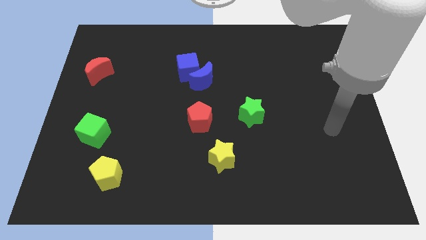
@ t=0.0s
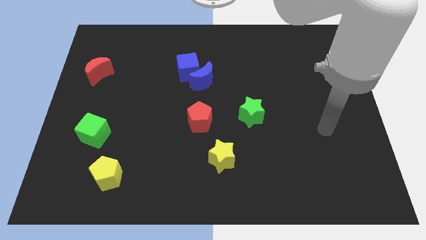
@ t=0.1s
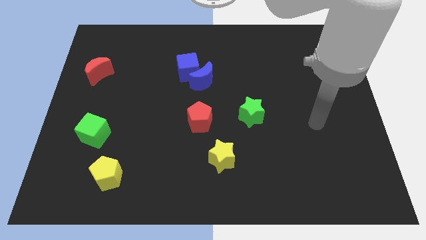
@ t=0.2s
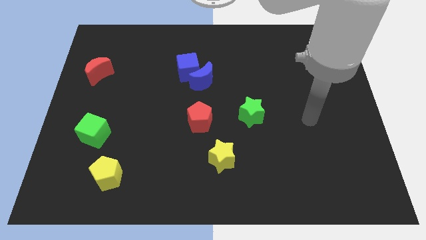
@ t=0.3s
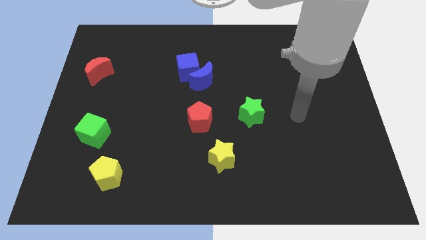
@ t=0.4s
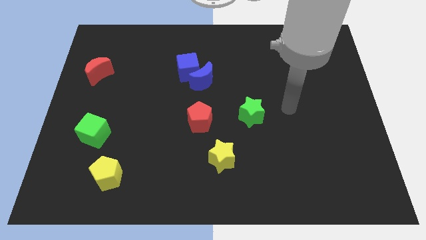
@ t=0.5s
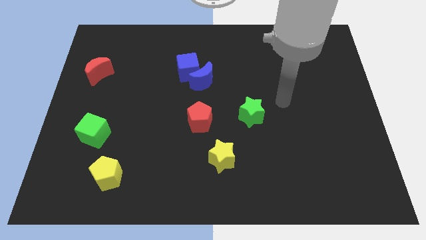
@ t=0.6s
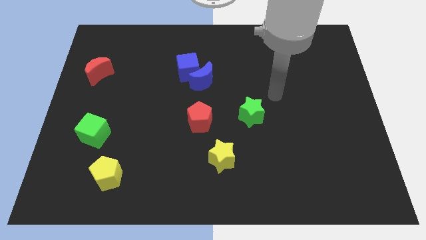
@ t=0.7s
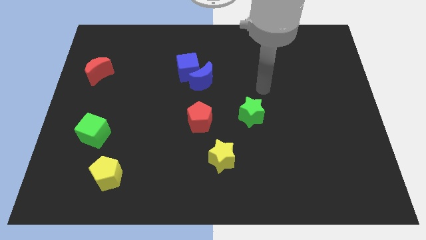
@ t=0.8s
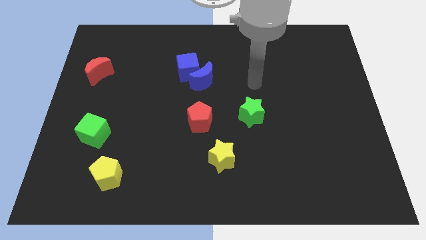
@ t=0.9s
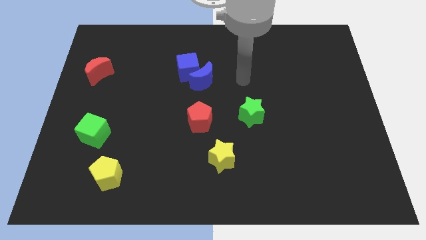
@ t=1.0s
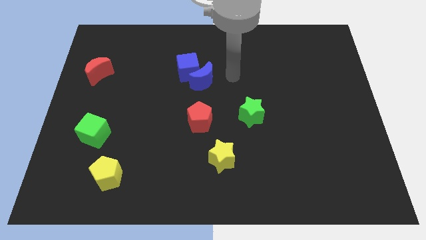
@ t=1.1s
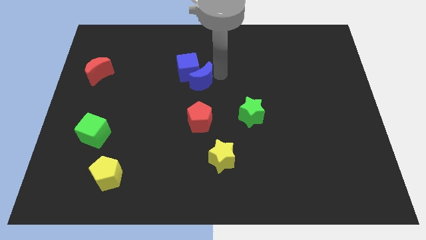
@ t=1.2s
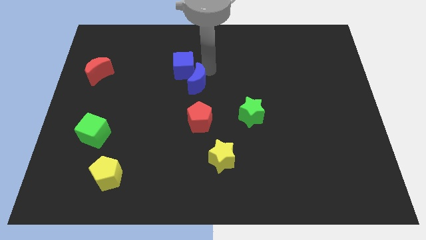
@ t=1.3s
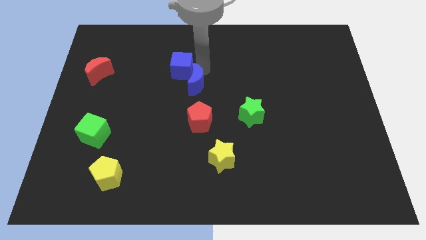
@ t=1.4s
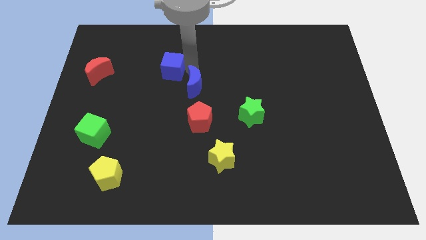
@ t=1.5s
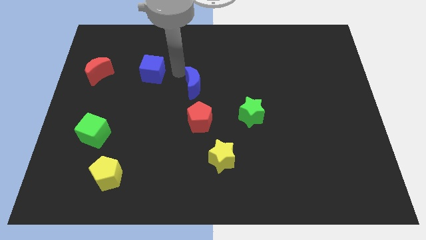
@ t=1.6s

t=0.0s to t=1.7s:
move the blue moon away from the blue cube

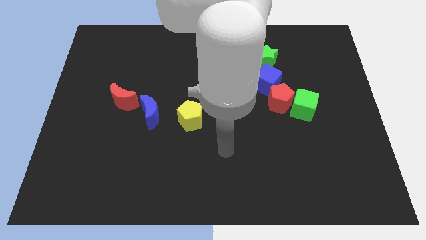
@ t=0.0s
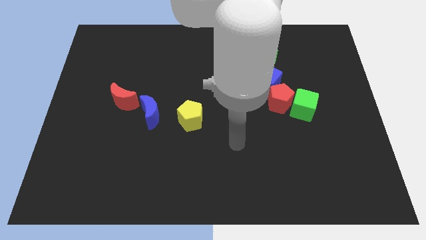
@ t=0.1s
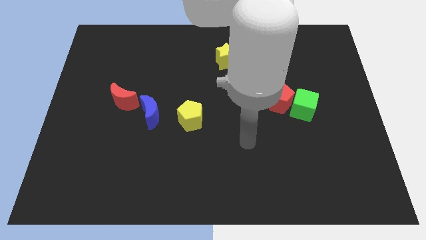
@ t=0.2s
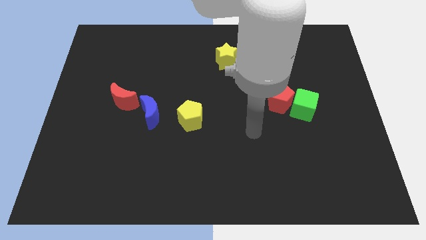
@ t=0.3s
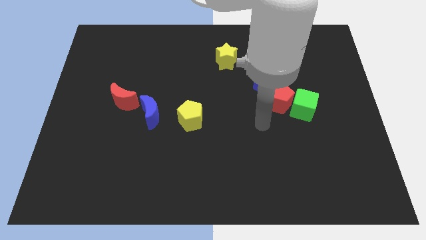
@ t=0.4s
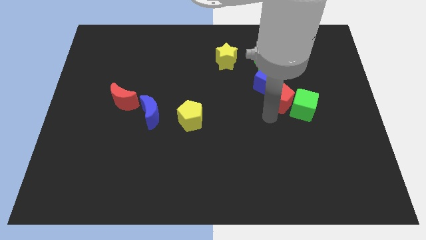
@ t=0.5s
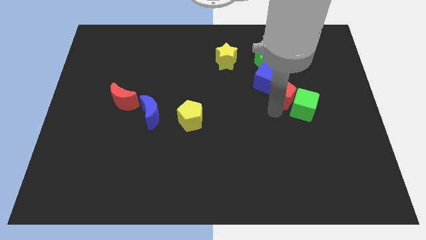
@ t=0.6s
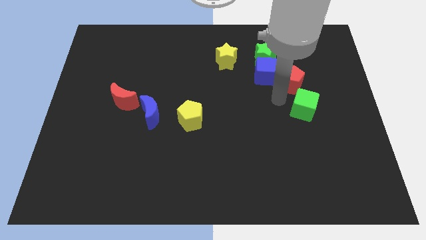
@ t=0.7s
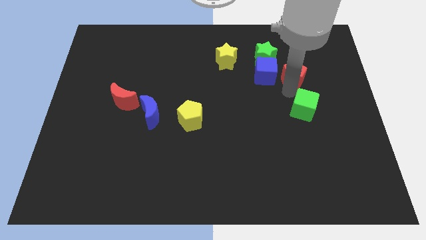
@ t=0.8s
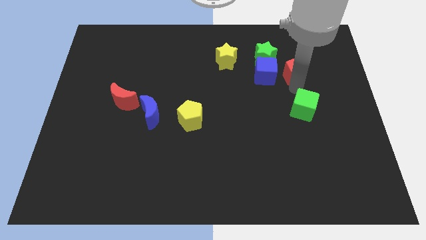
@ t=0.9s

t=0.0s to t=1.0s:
pull the green cube apart from the red pentagon

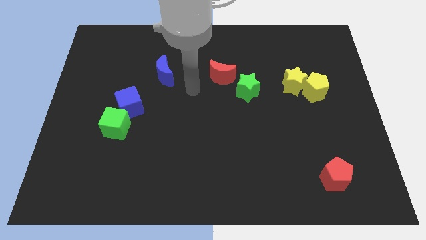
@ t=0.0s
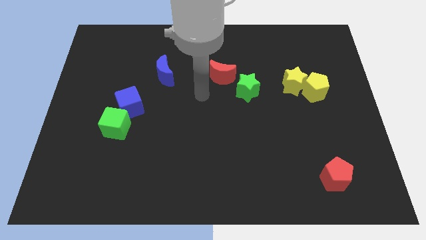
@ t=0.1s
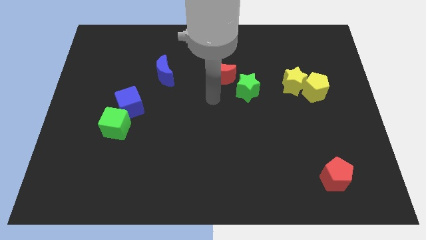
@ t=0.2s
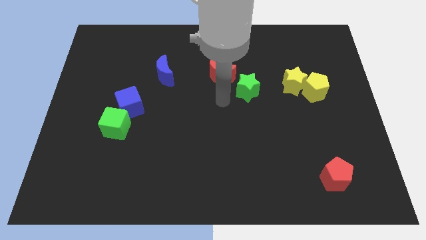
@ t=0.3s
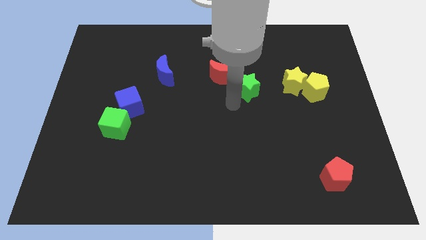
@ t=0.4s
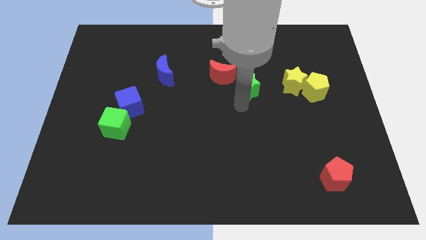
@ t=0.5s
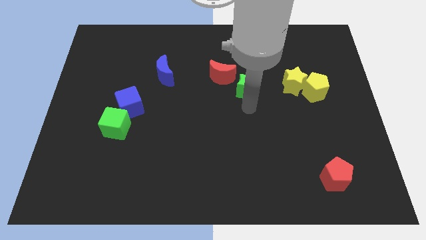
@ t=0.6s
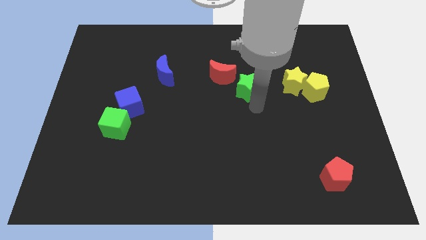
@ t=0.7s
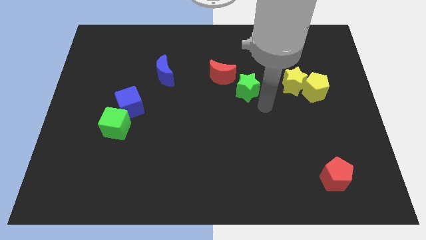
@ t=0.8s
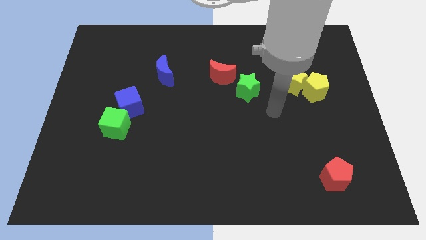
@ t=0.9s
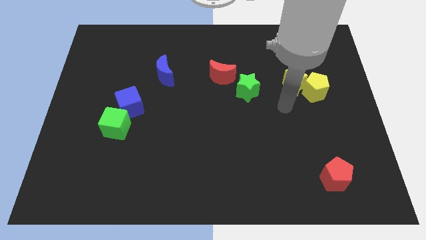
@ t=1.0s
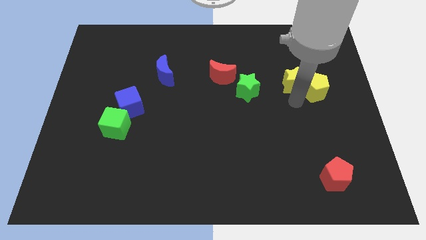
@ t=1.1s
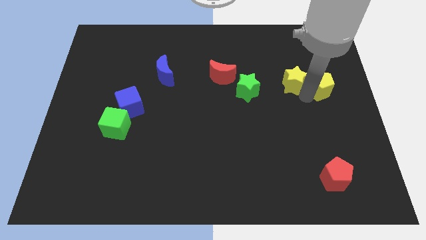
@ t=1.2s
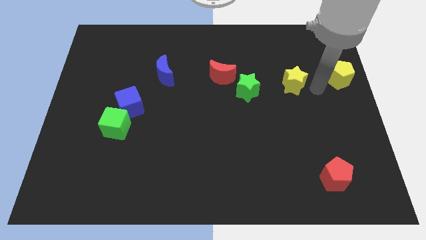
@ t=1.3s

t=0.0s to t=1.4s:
move the yellow star away from the yellow pentagon

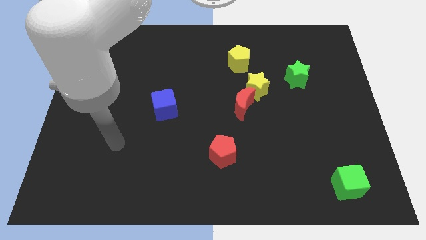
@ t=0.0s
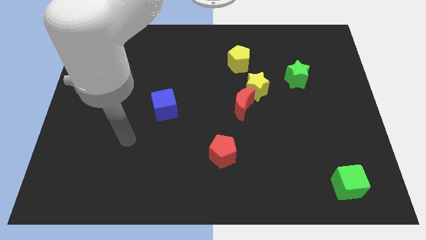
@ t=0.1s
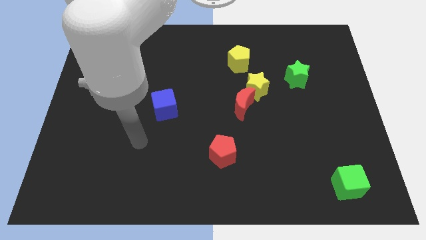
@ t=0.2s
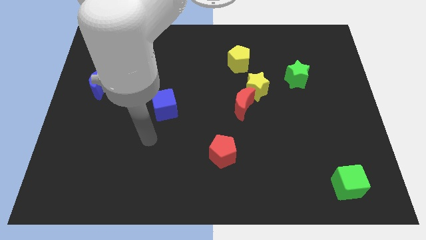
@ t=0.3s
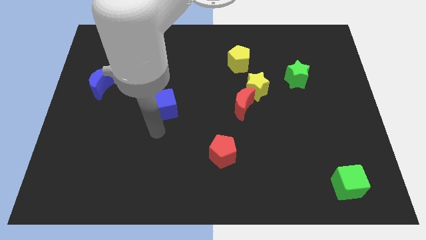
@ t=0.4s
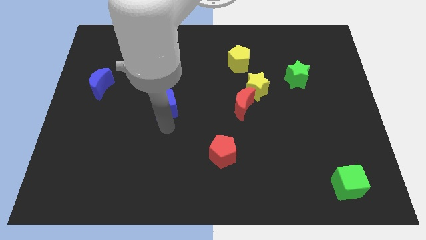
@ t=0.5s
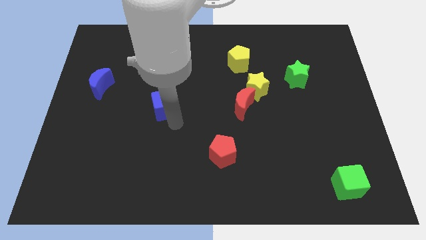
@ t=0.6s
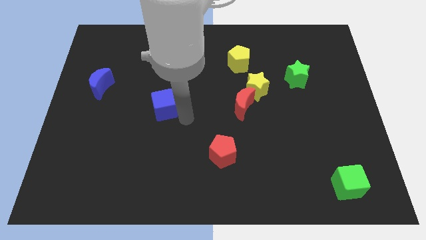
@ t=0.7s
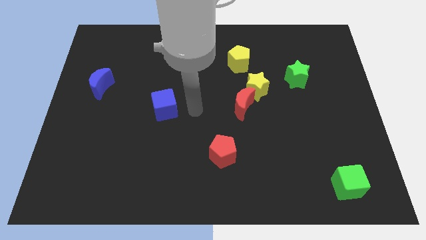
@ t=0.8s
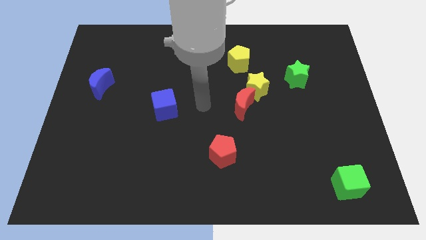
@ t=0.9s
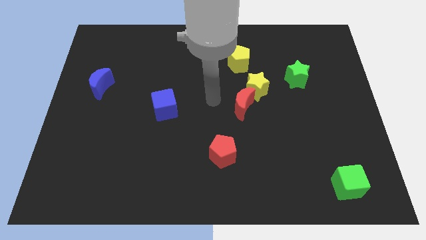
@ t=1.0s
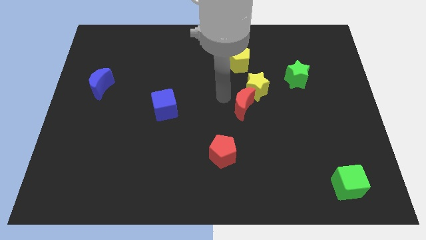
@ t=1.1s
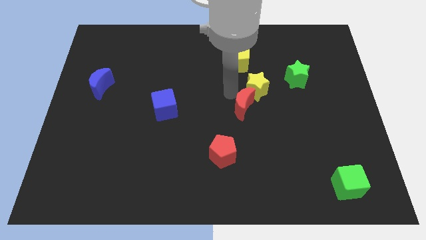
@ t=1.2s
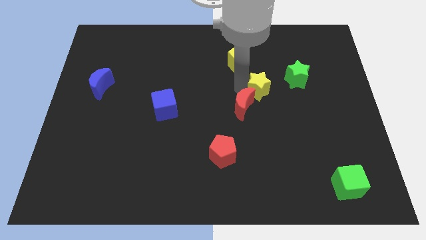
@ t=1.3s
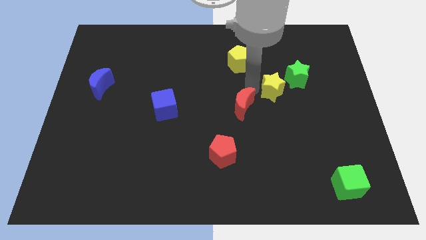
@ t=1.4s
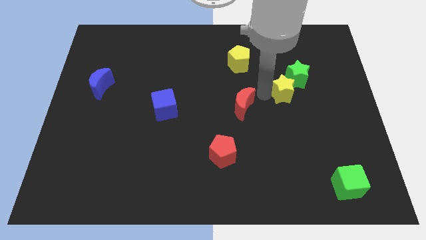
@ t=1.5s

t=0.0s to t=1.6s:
separate the red moon from the yellow star

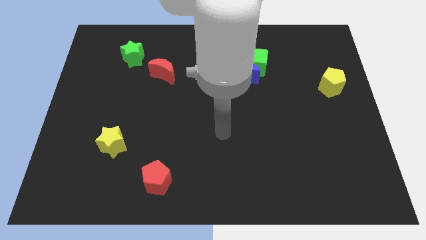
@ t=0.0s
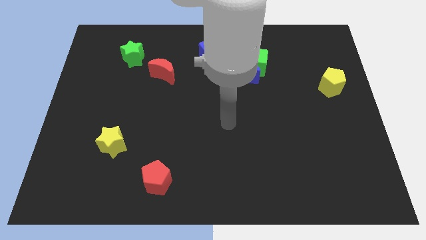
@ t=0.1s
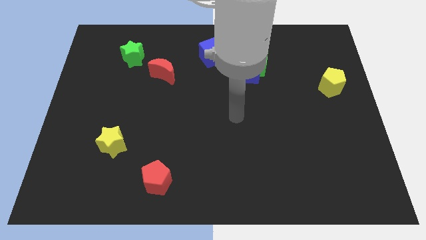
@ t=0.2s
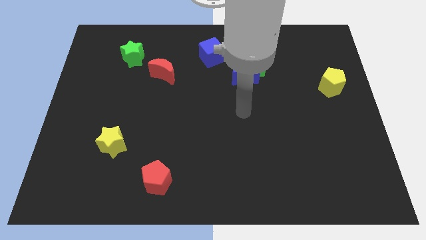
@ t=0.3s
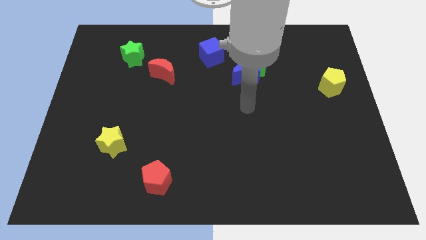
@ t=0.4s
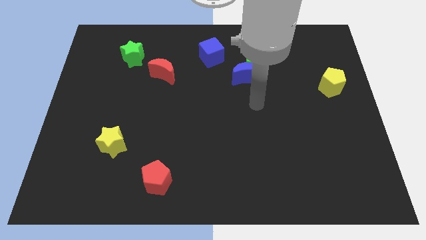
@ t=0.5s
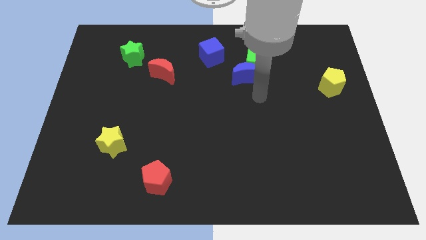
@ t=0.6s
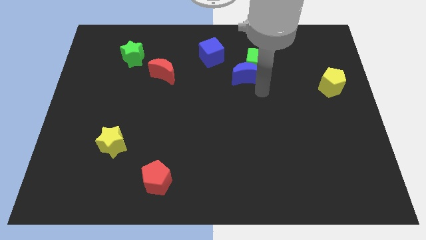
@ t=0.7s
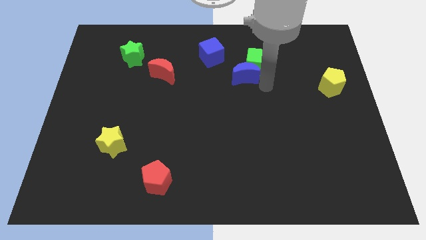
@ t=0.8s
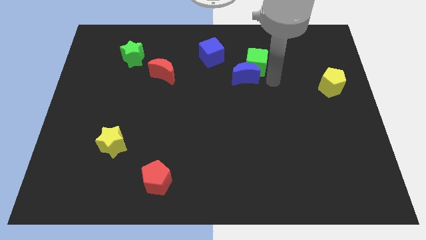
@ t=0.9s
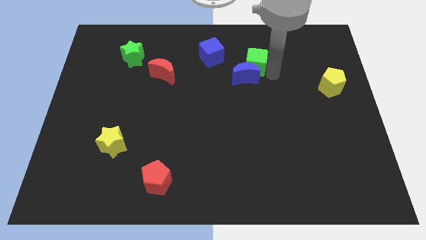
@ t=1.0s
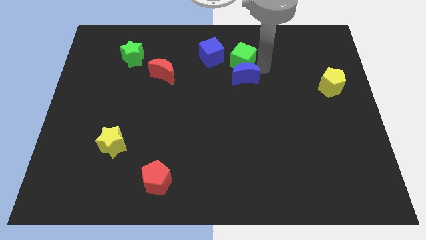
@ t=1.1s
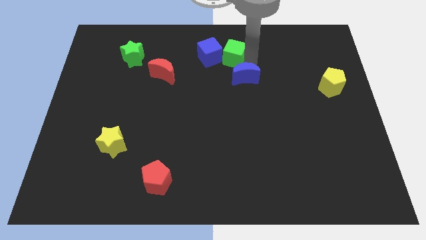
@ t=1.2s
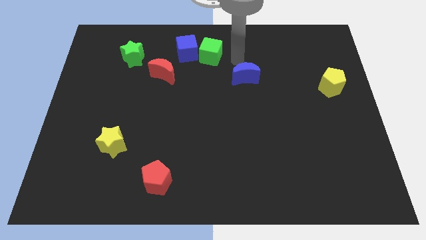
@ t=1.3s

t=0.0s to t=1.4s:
separate the blue moon from the green cube

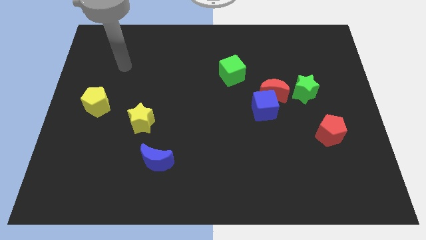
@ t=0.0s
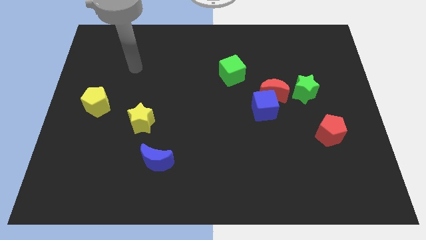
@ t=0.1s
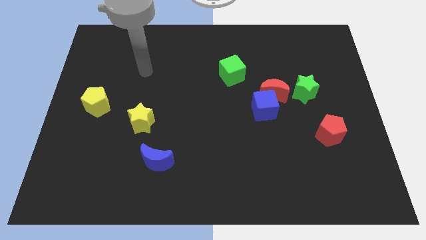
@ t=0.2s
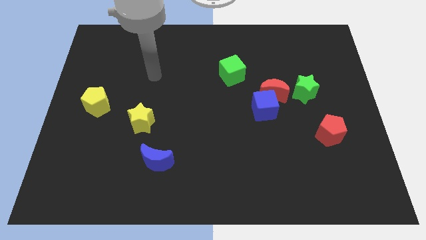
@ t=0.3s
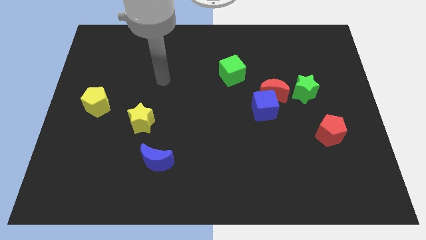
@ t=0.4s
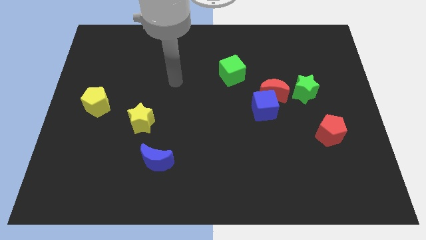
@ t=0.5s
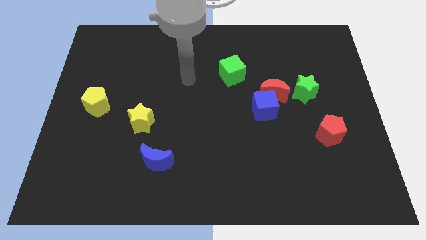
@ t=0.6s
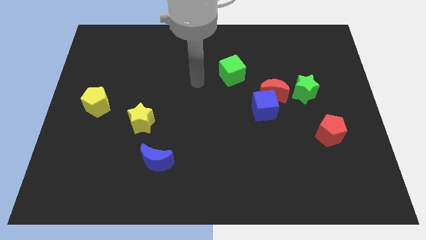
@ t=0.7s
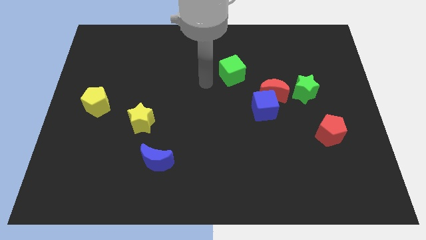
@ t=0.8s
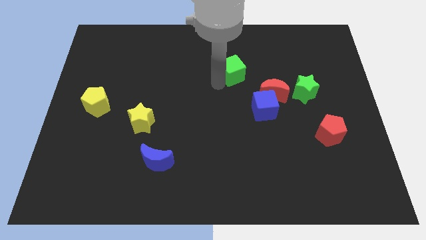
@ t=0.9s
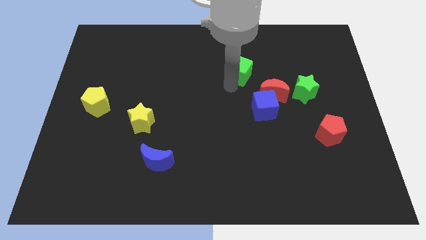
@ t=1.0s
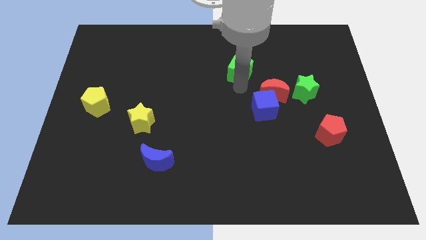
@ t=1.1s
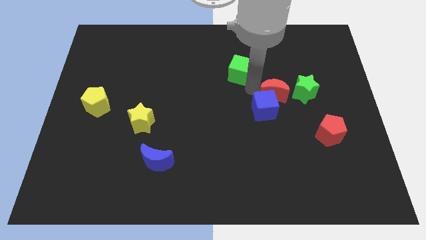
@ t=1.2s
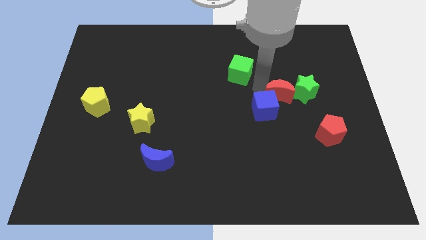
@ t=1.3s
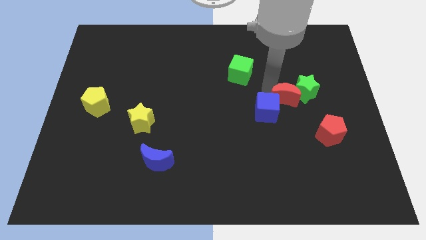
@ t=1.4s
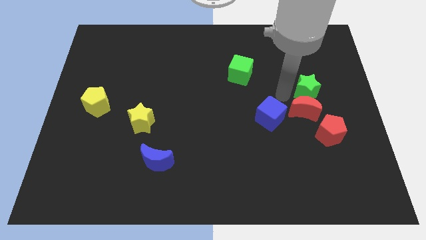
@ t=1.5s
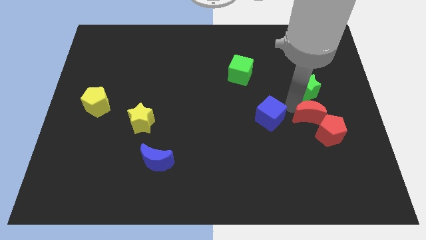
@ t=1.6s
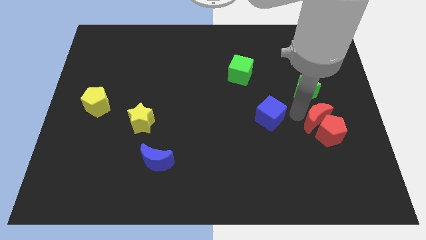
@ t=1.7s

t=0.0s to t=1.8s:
move the blue cube away from the red moon

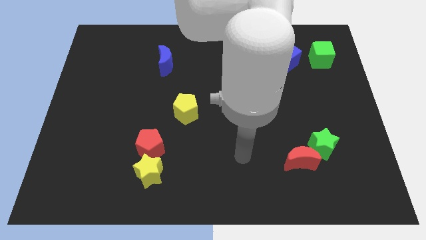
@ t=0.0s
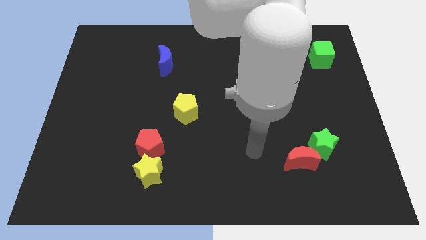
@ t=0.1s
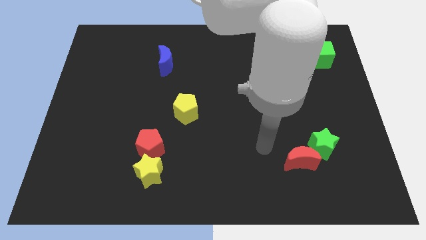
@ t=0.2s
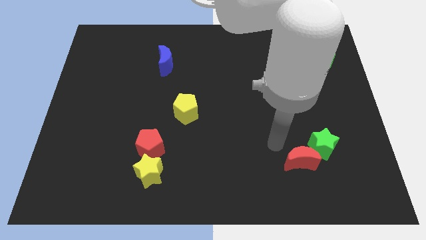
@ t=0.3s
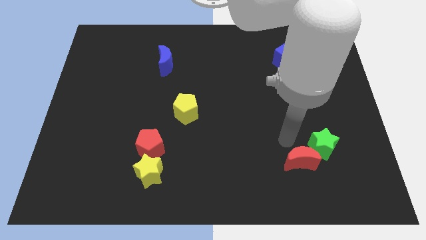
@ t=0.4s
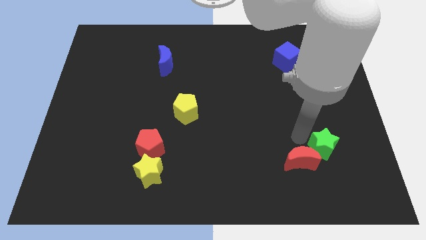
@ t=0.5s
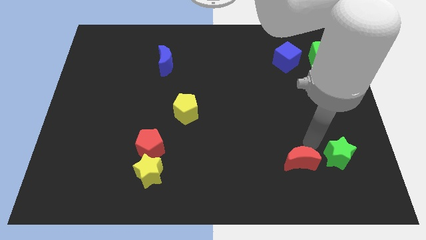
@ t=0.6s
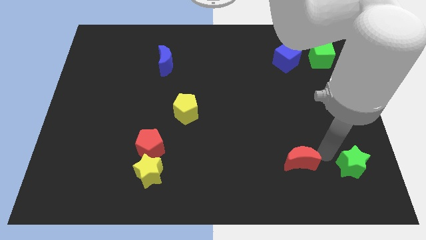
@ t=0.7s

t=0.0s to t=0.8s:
separate the red moon from the green star
